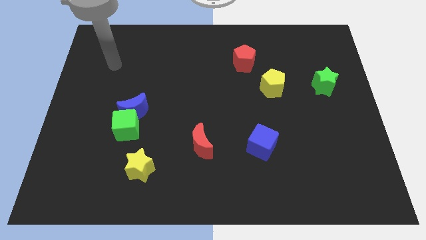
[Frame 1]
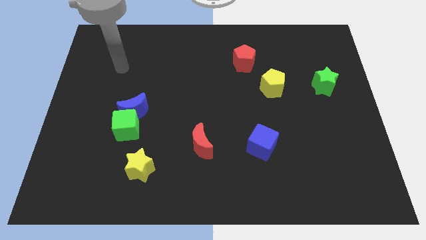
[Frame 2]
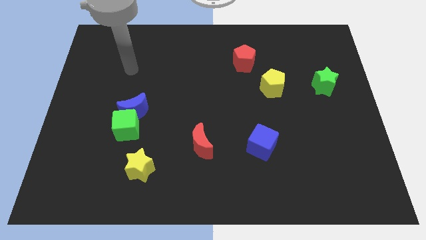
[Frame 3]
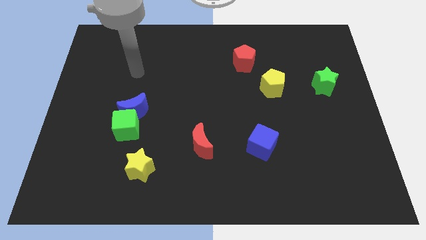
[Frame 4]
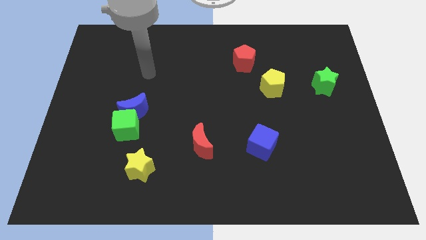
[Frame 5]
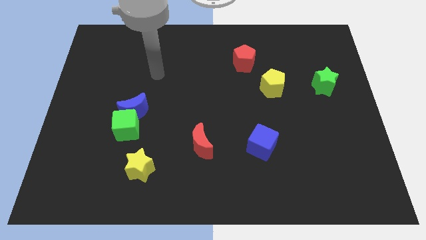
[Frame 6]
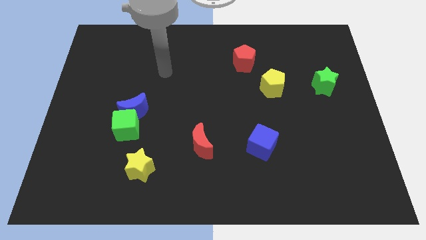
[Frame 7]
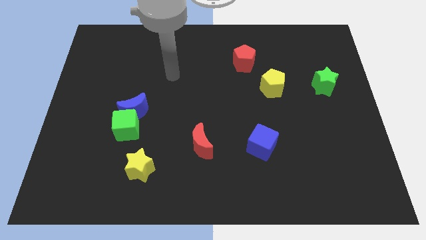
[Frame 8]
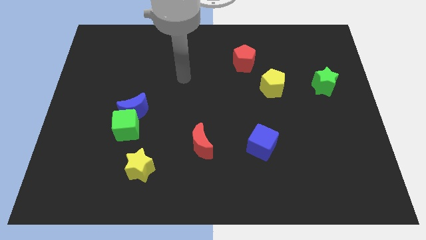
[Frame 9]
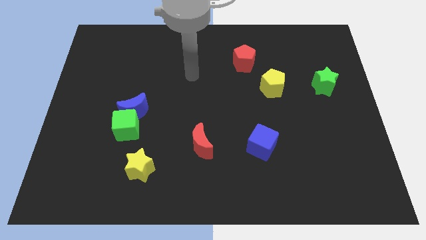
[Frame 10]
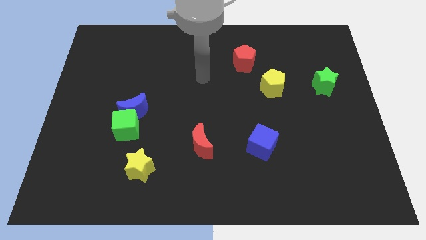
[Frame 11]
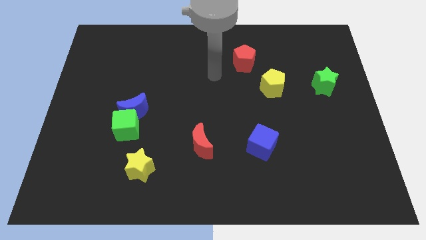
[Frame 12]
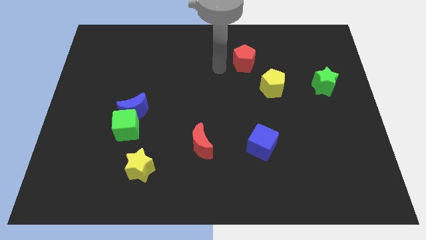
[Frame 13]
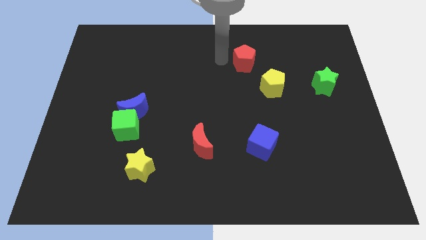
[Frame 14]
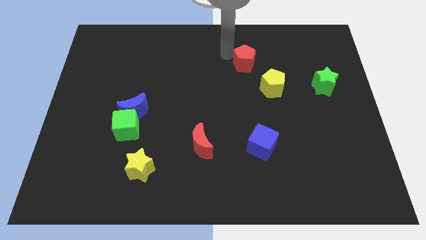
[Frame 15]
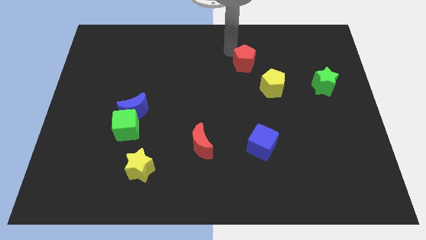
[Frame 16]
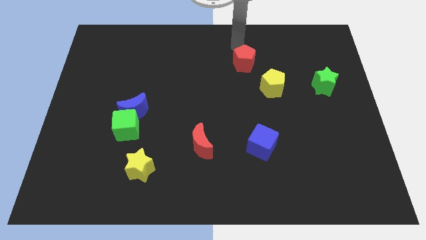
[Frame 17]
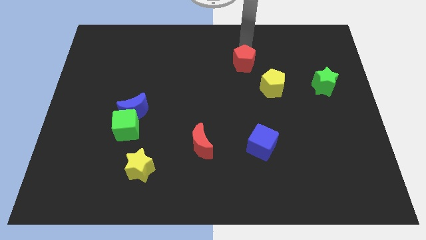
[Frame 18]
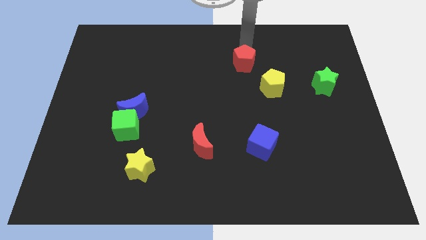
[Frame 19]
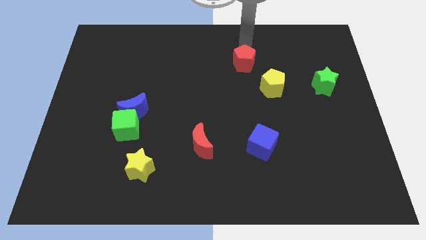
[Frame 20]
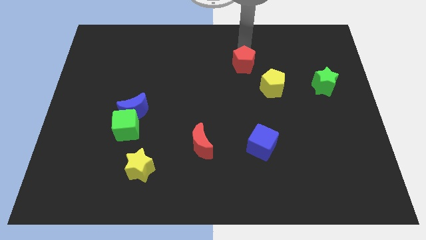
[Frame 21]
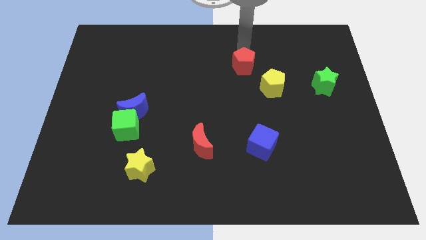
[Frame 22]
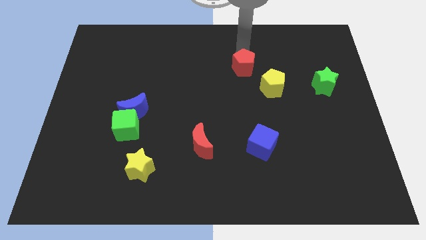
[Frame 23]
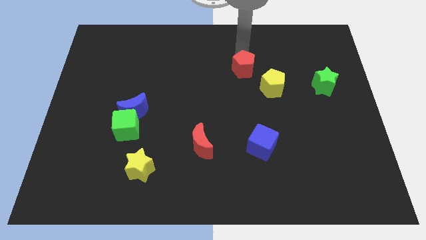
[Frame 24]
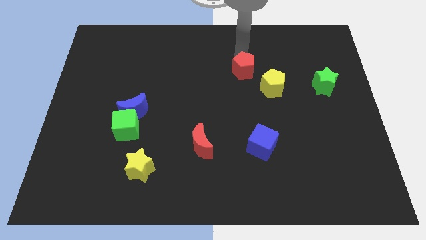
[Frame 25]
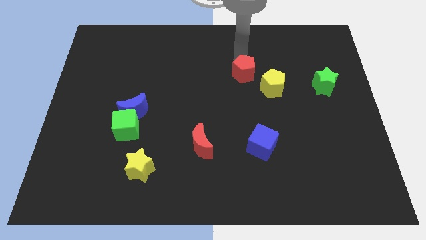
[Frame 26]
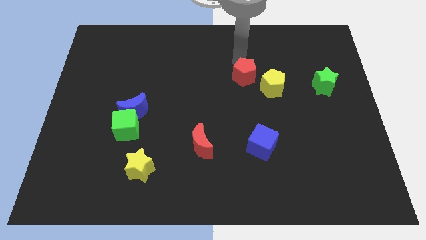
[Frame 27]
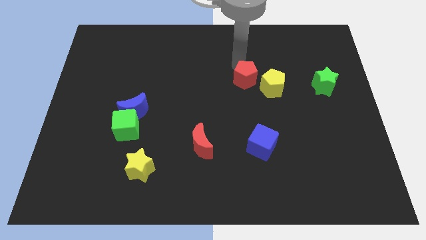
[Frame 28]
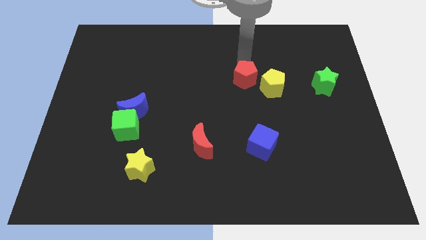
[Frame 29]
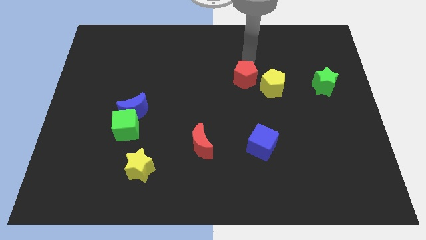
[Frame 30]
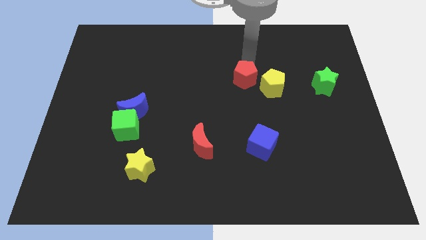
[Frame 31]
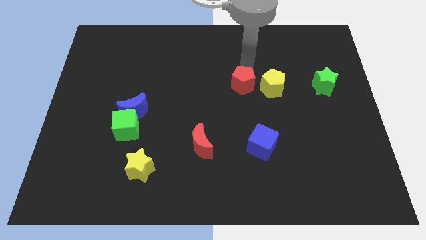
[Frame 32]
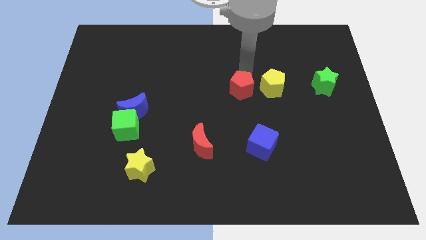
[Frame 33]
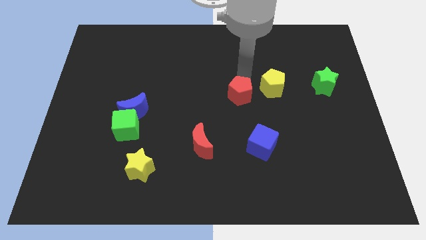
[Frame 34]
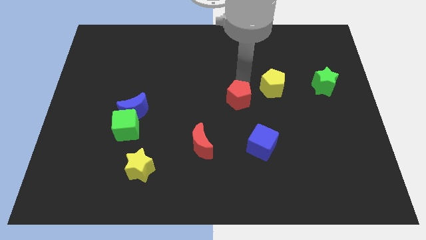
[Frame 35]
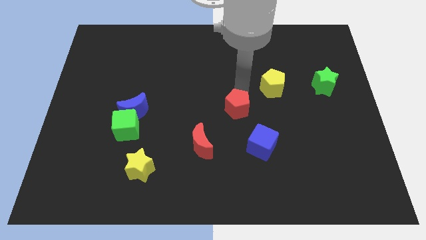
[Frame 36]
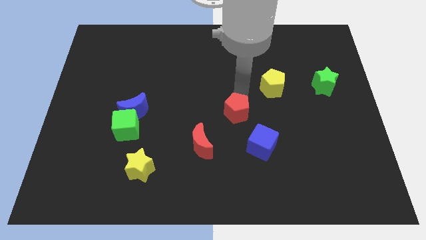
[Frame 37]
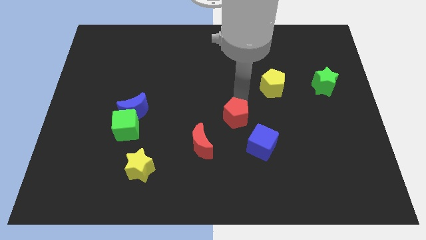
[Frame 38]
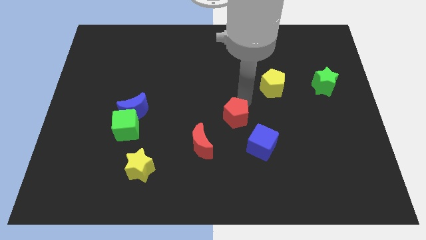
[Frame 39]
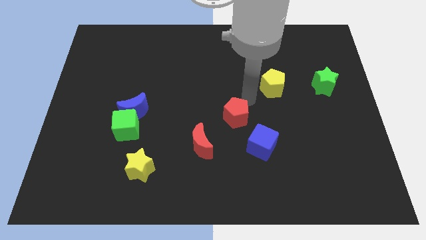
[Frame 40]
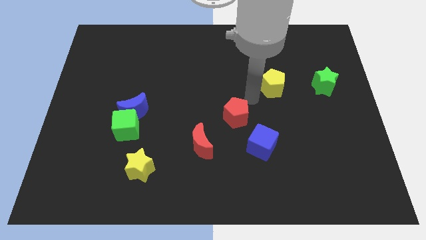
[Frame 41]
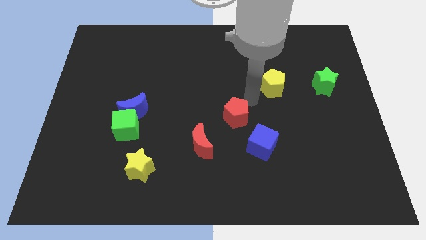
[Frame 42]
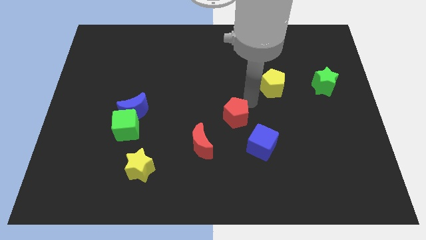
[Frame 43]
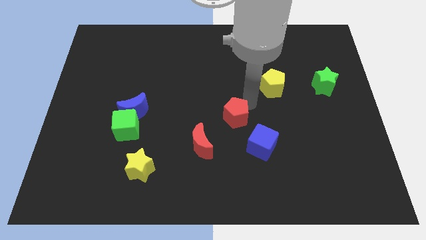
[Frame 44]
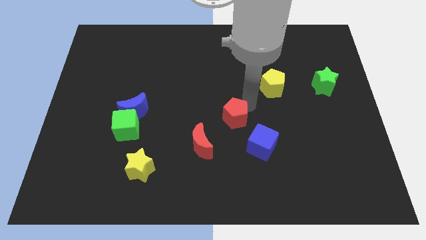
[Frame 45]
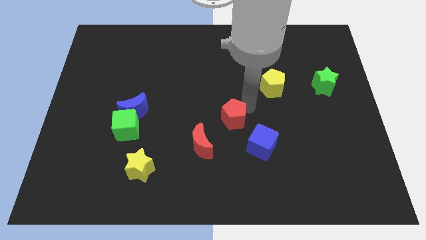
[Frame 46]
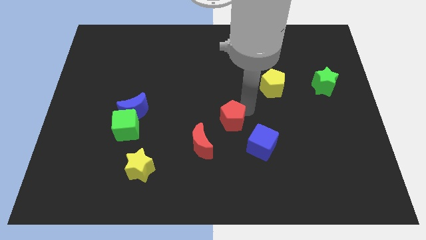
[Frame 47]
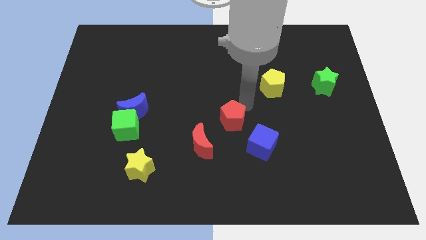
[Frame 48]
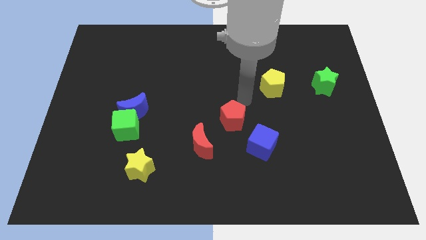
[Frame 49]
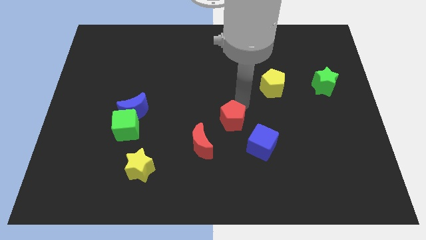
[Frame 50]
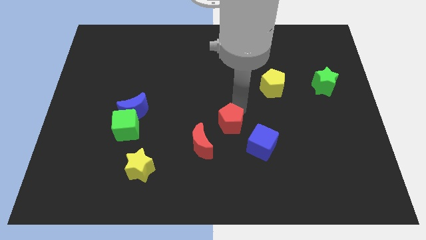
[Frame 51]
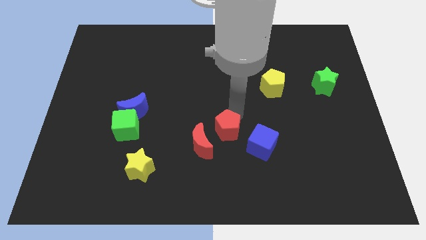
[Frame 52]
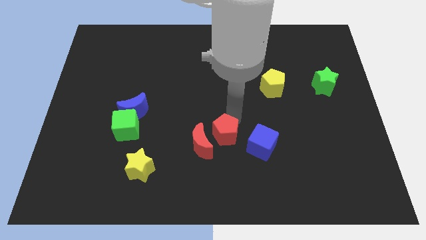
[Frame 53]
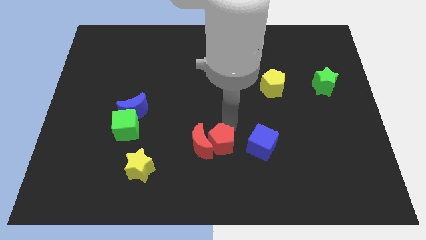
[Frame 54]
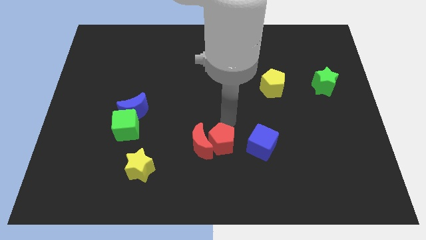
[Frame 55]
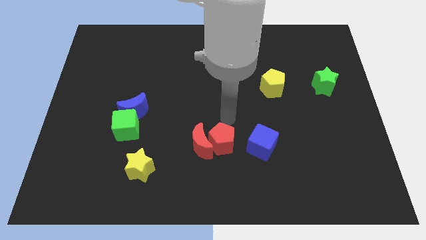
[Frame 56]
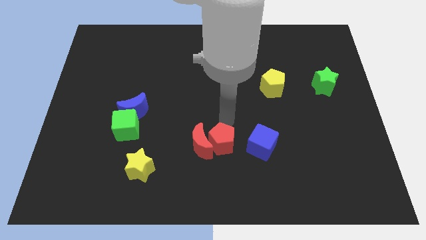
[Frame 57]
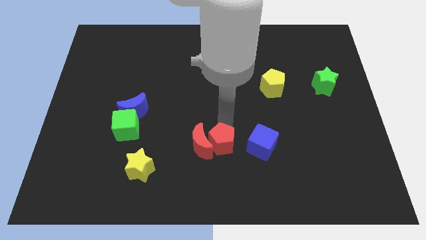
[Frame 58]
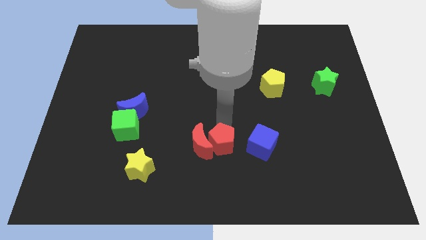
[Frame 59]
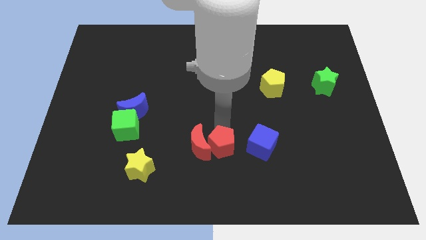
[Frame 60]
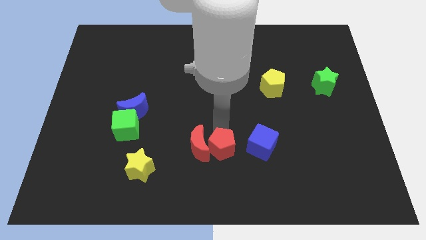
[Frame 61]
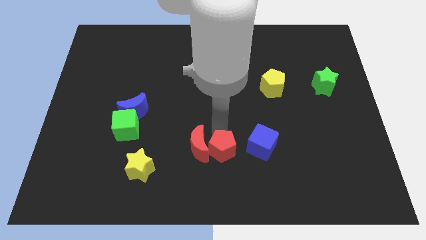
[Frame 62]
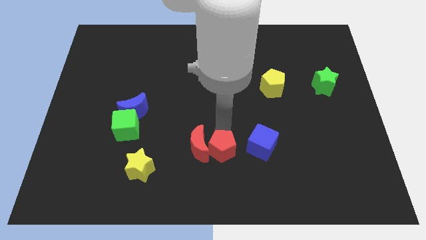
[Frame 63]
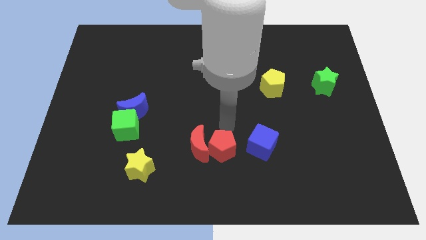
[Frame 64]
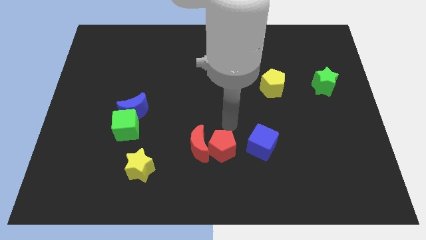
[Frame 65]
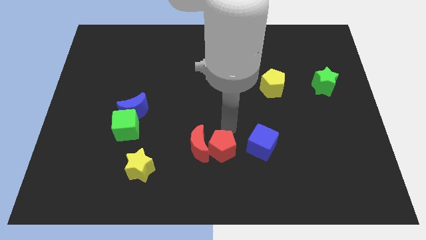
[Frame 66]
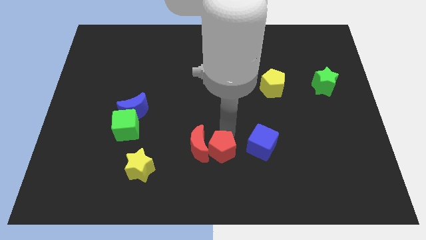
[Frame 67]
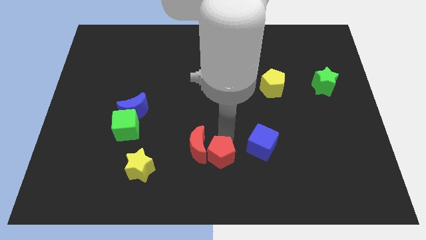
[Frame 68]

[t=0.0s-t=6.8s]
slide the red pentagon to the bottom side
